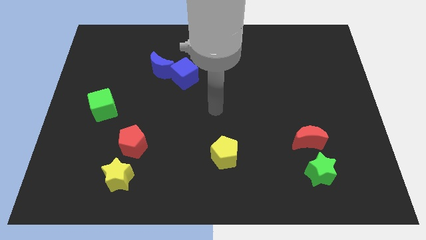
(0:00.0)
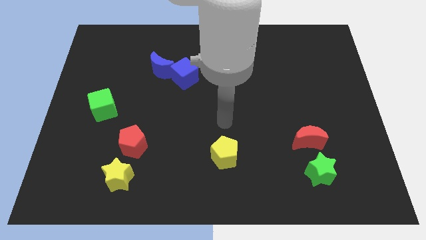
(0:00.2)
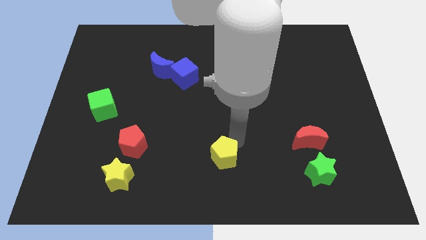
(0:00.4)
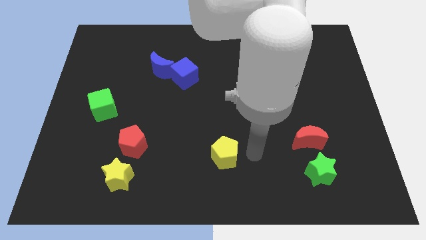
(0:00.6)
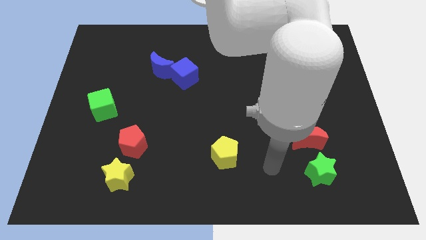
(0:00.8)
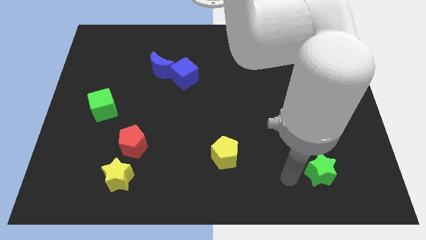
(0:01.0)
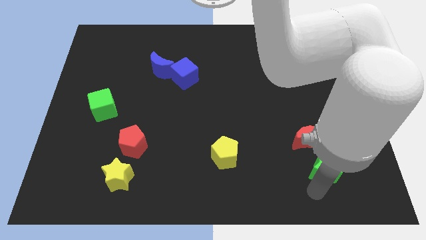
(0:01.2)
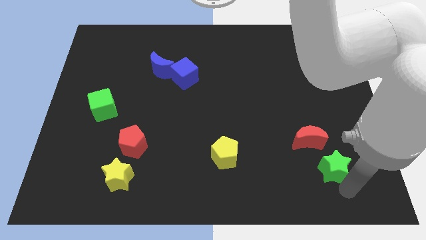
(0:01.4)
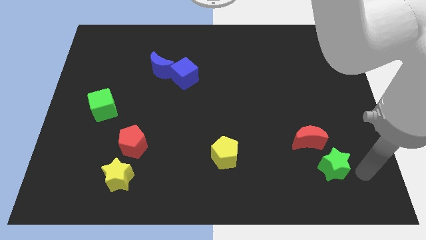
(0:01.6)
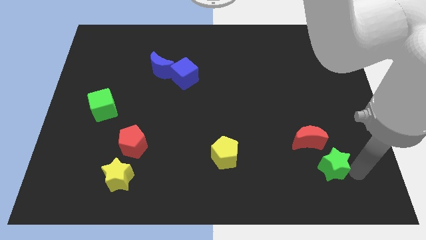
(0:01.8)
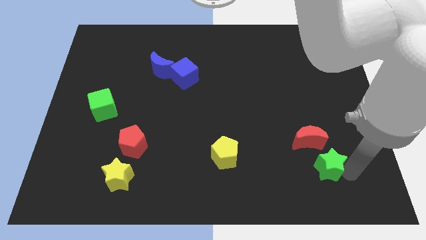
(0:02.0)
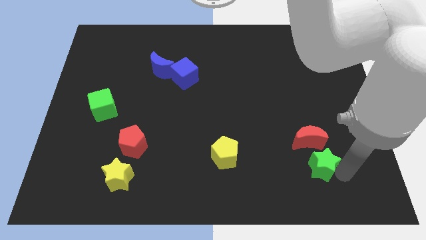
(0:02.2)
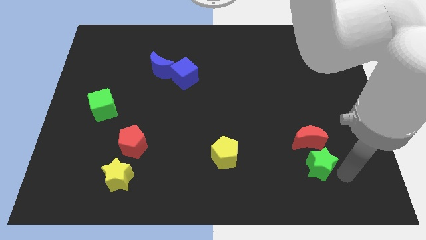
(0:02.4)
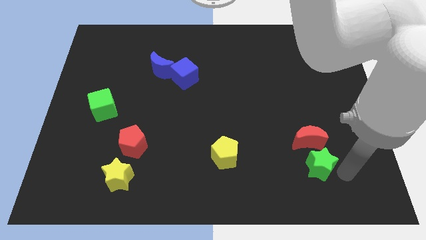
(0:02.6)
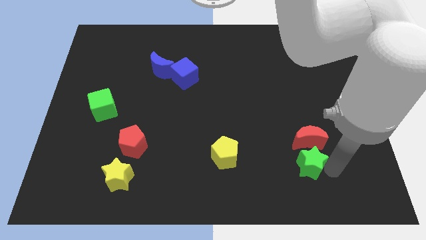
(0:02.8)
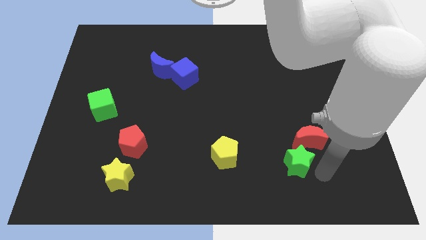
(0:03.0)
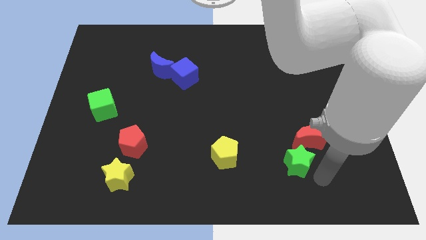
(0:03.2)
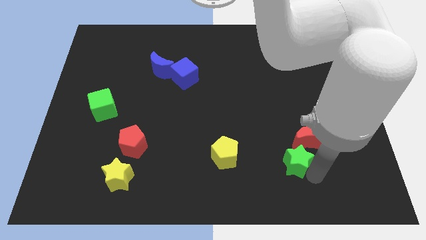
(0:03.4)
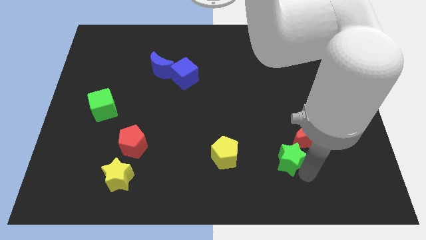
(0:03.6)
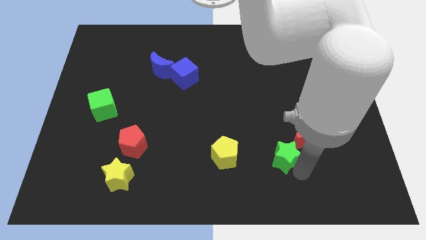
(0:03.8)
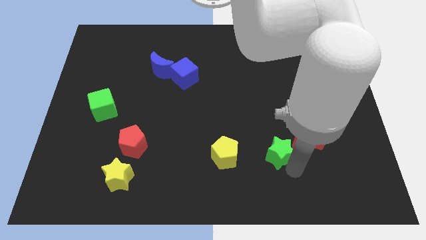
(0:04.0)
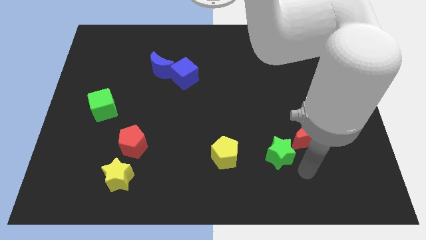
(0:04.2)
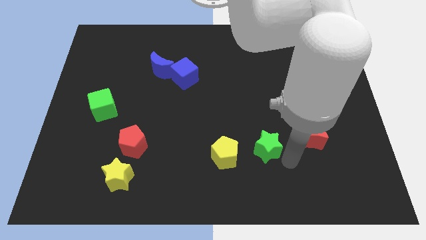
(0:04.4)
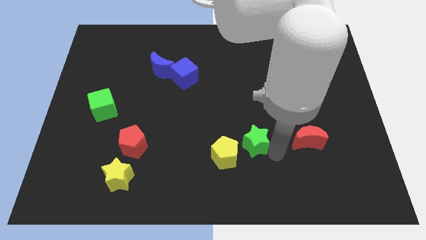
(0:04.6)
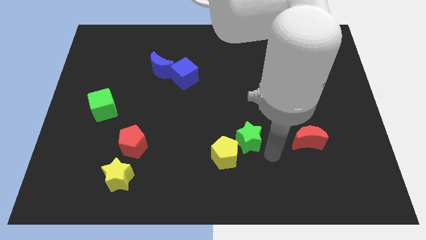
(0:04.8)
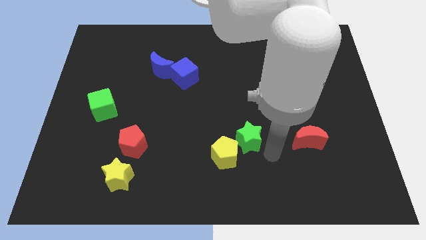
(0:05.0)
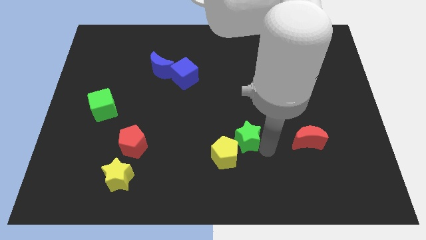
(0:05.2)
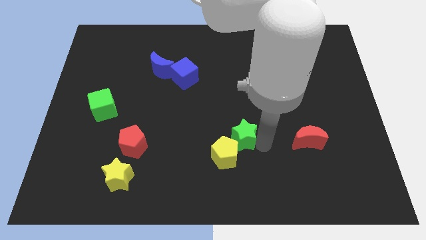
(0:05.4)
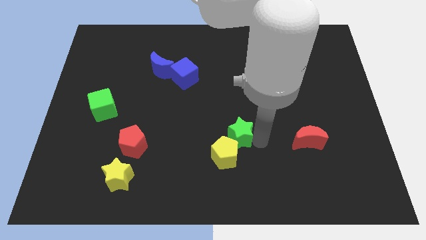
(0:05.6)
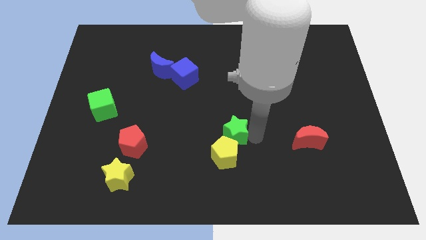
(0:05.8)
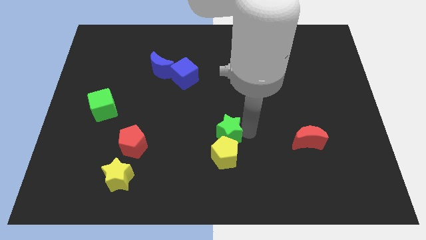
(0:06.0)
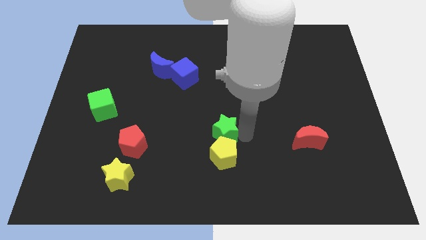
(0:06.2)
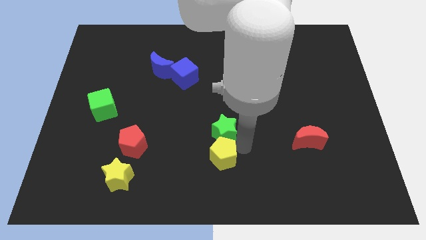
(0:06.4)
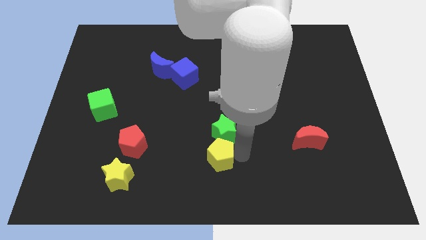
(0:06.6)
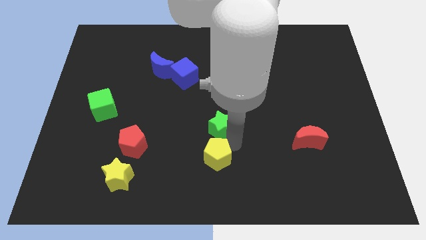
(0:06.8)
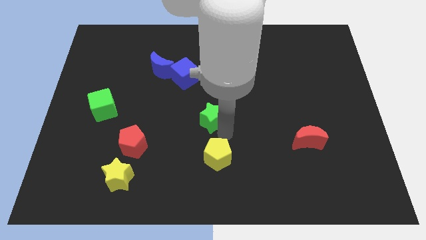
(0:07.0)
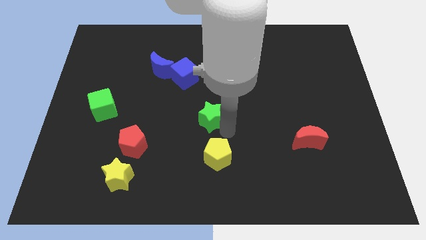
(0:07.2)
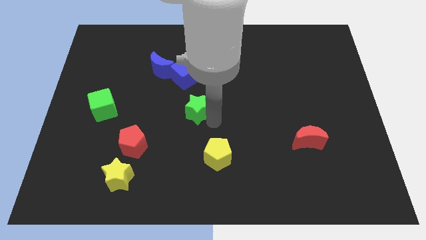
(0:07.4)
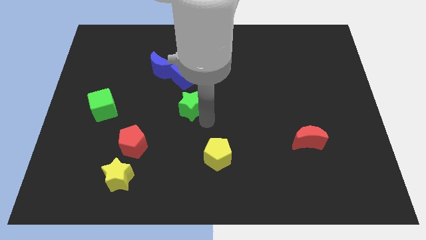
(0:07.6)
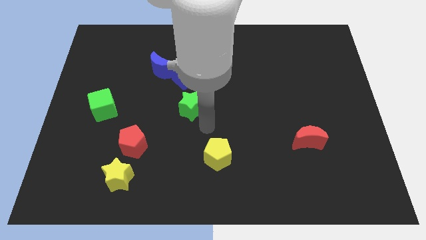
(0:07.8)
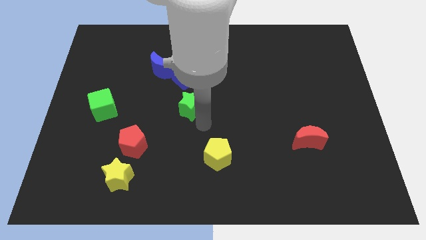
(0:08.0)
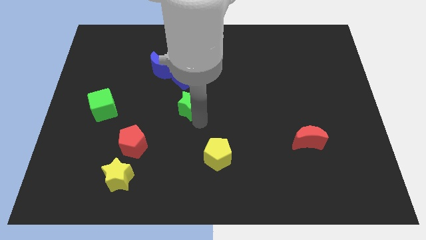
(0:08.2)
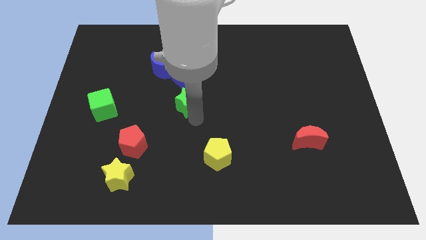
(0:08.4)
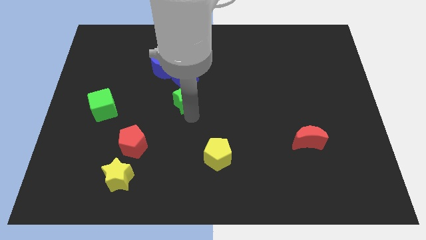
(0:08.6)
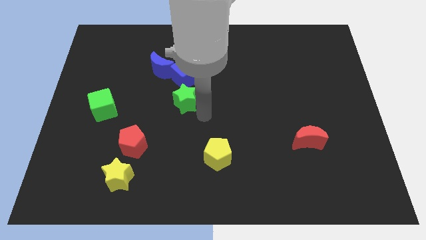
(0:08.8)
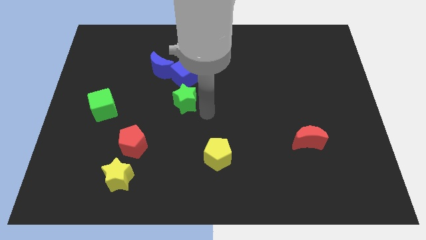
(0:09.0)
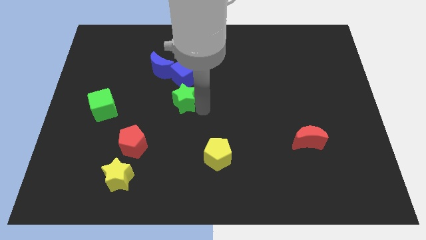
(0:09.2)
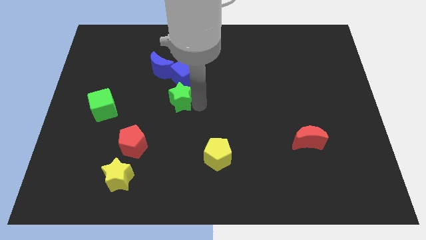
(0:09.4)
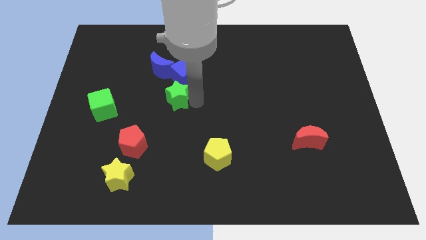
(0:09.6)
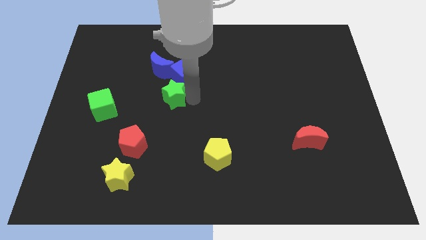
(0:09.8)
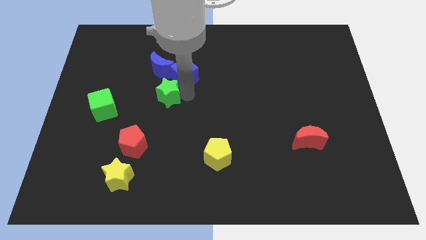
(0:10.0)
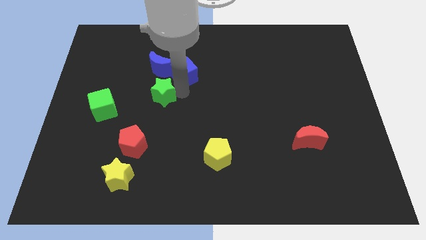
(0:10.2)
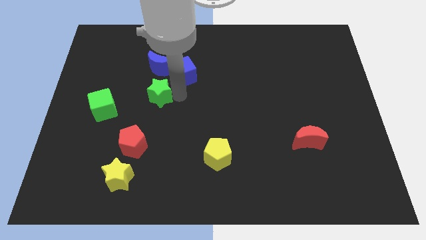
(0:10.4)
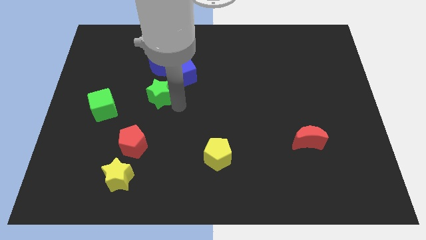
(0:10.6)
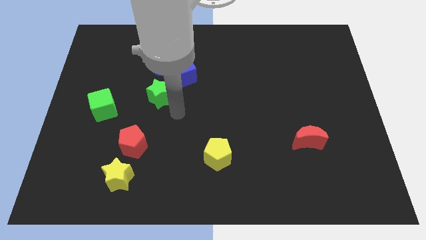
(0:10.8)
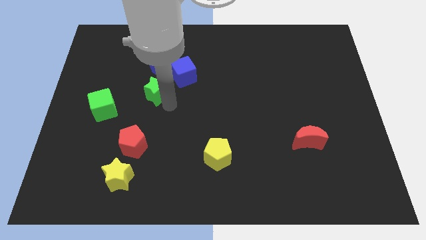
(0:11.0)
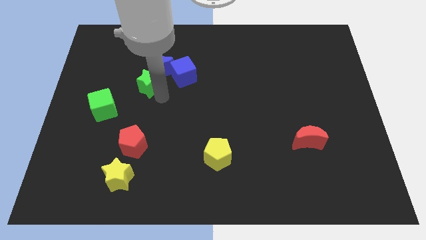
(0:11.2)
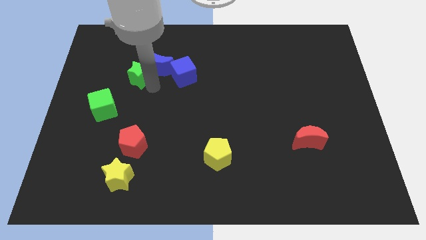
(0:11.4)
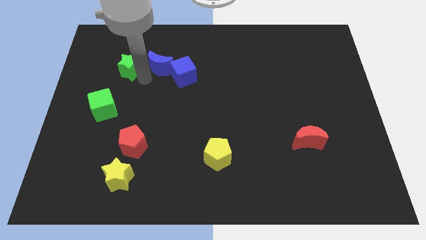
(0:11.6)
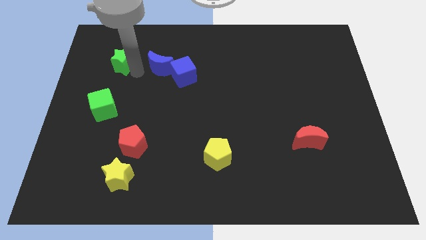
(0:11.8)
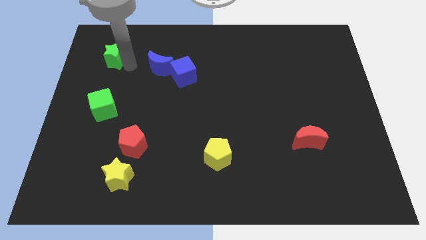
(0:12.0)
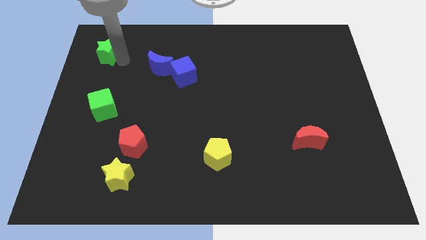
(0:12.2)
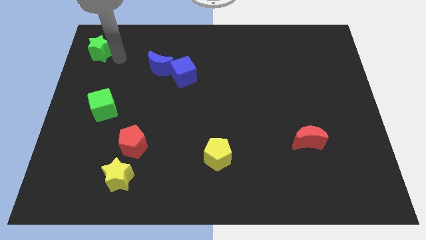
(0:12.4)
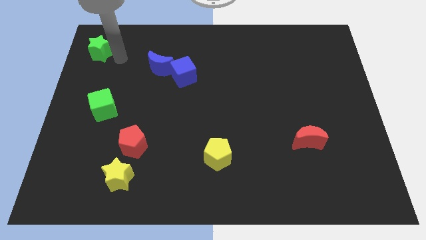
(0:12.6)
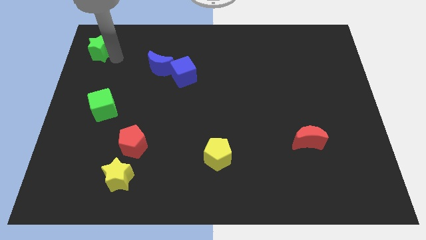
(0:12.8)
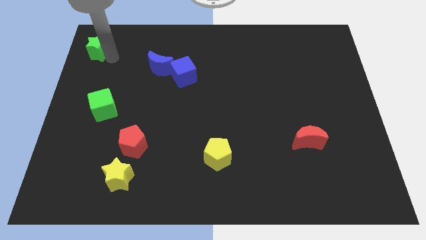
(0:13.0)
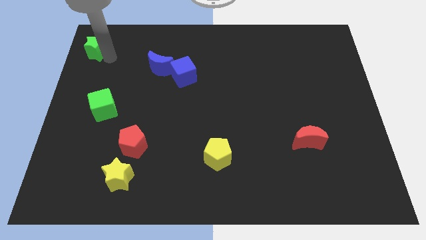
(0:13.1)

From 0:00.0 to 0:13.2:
push the green star to the top left of the board
